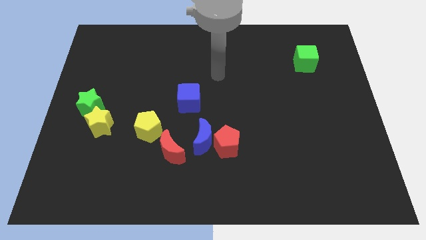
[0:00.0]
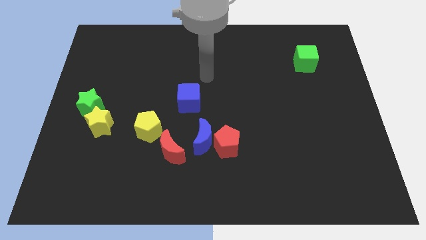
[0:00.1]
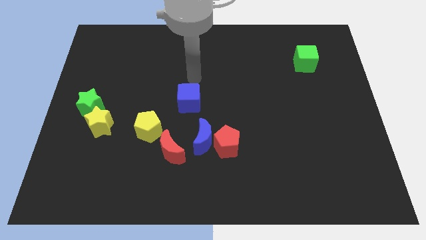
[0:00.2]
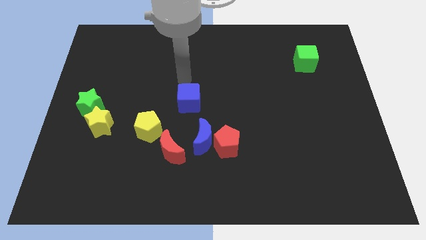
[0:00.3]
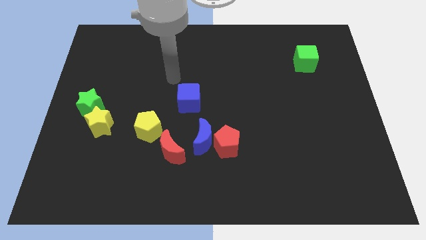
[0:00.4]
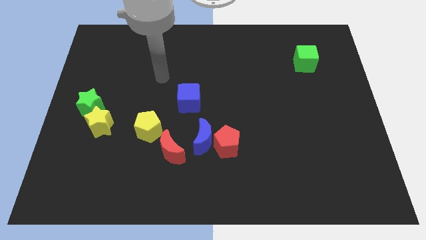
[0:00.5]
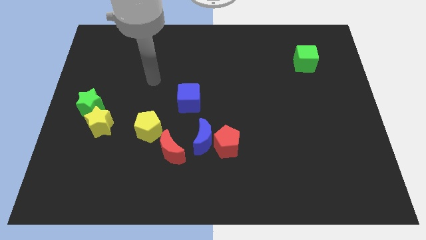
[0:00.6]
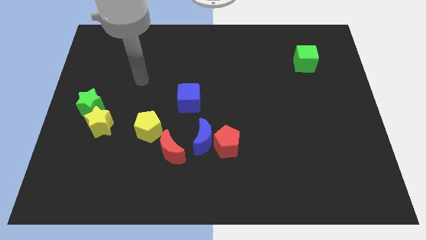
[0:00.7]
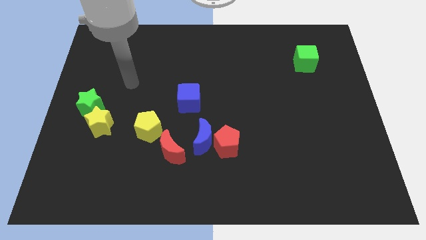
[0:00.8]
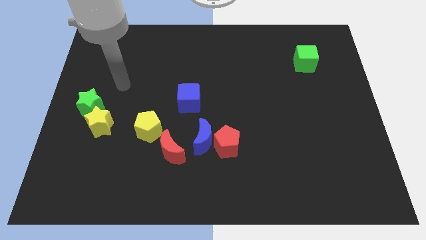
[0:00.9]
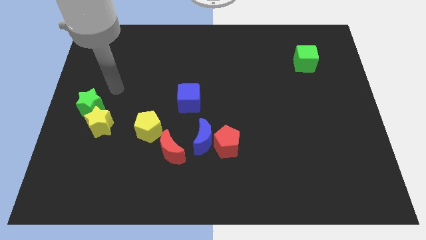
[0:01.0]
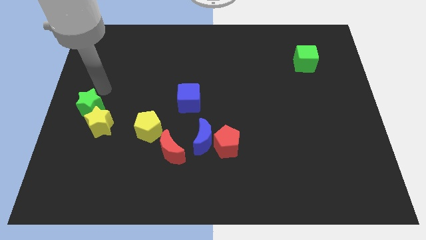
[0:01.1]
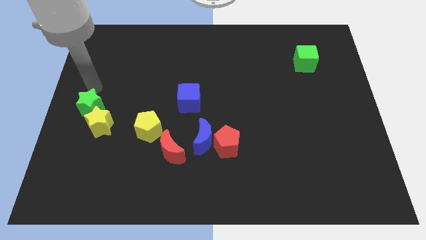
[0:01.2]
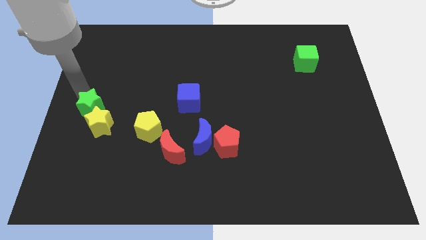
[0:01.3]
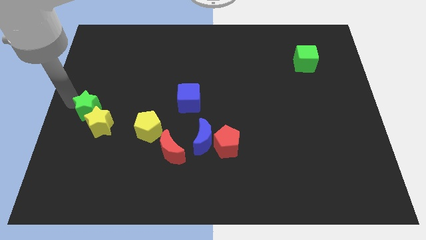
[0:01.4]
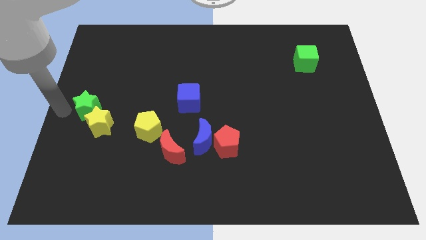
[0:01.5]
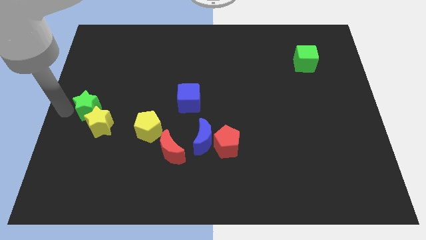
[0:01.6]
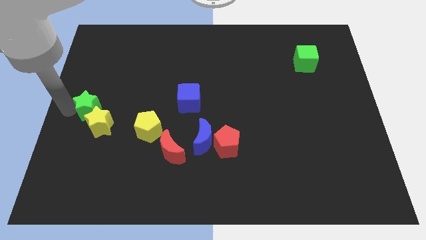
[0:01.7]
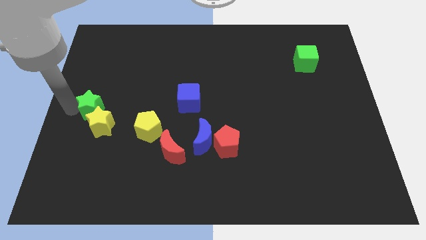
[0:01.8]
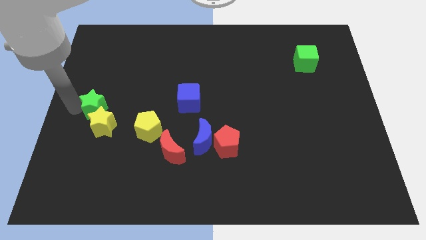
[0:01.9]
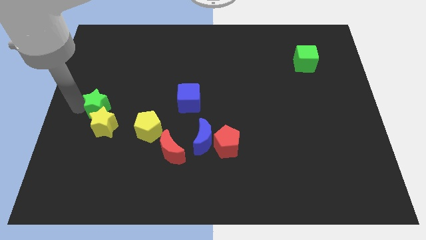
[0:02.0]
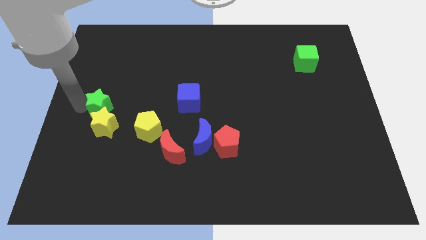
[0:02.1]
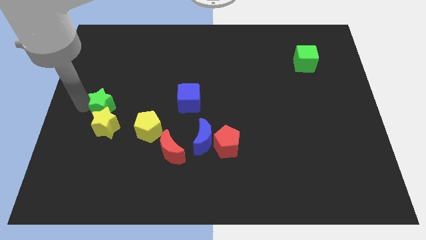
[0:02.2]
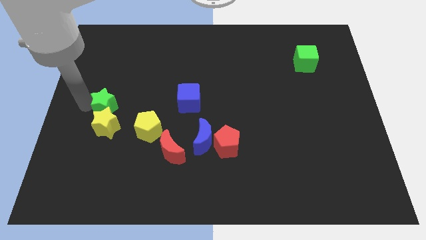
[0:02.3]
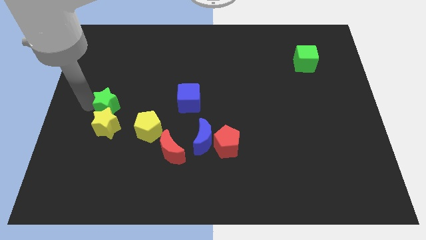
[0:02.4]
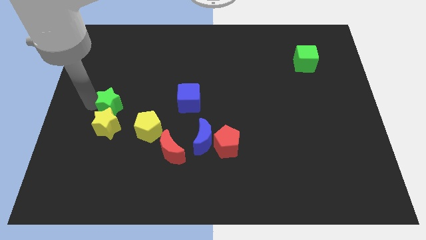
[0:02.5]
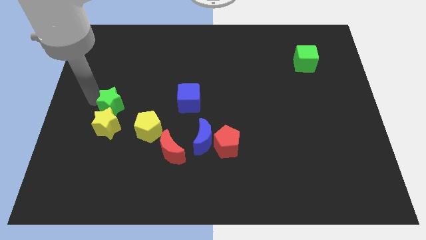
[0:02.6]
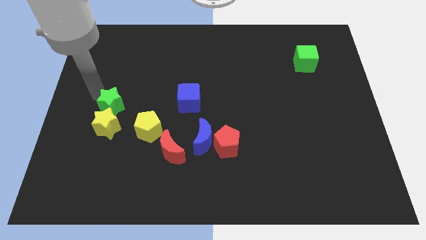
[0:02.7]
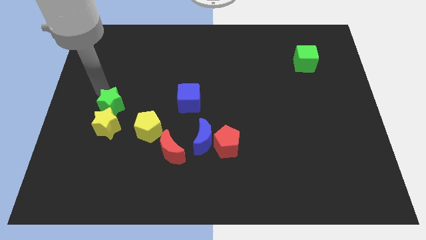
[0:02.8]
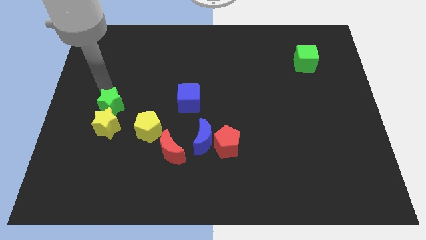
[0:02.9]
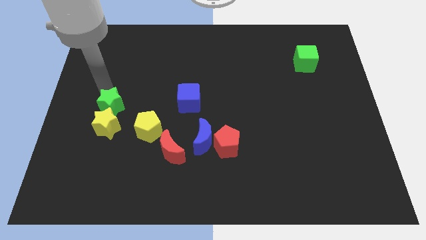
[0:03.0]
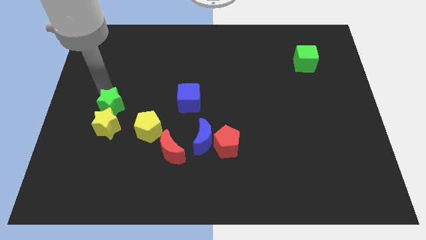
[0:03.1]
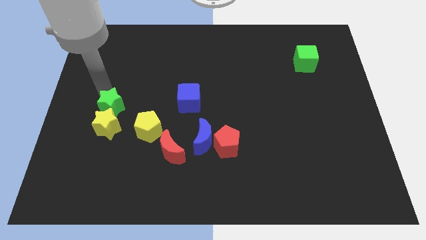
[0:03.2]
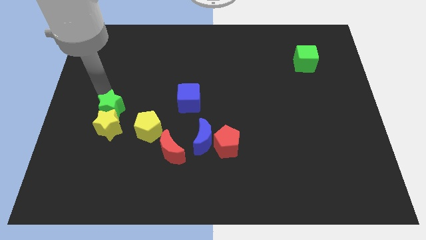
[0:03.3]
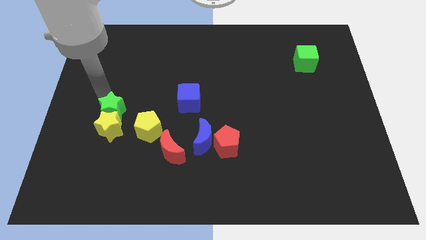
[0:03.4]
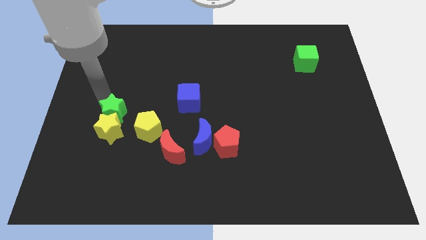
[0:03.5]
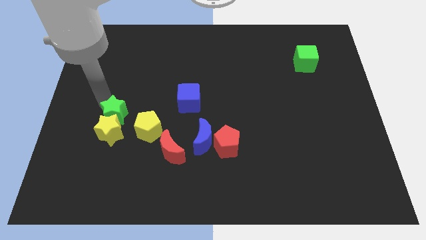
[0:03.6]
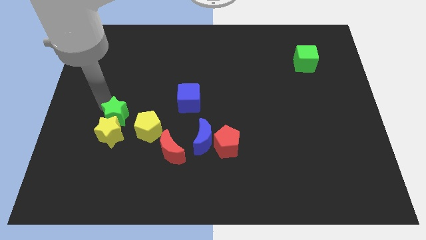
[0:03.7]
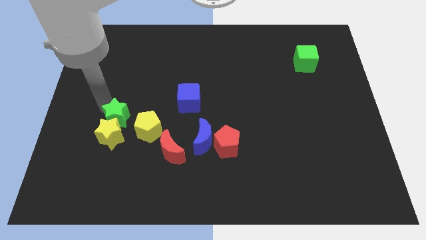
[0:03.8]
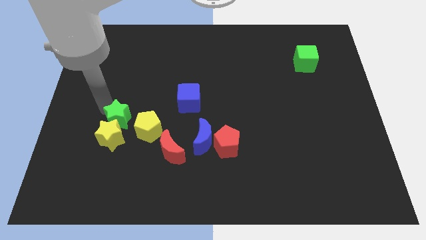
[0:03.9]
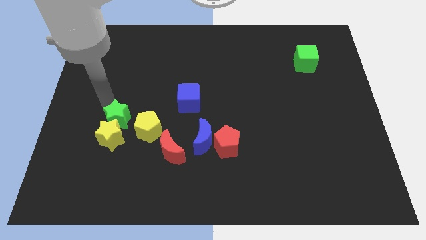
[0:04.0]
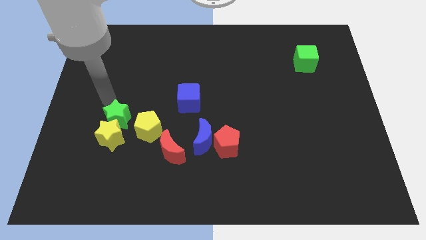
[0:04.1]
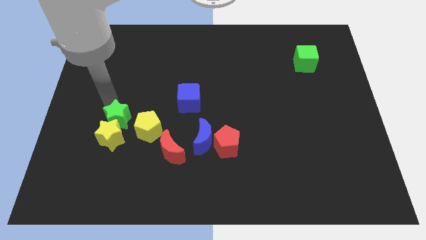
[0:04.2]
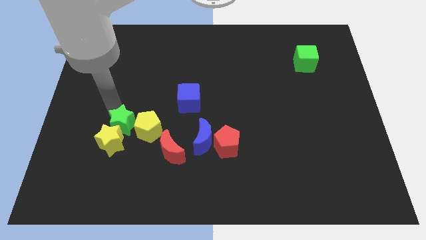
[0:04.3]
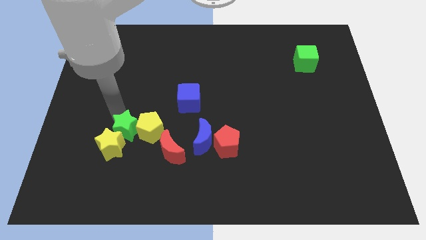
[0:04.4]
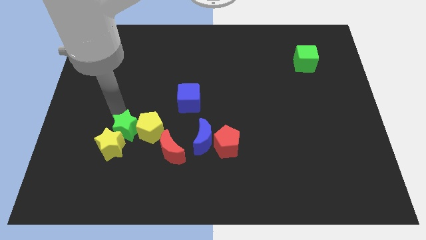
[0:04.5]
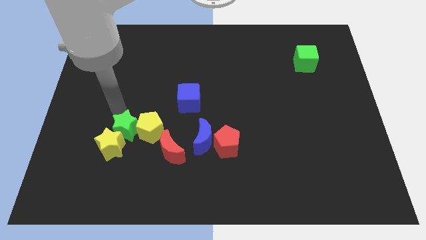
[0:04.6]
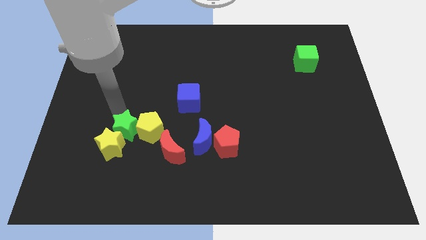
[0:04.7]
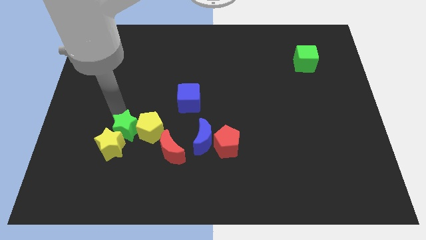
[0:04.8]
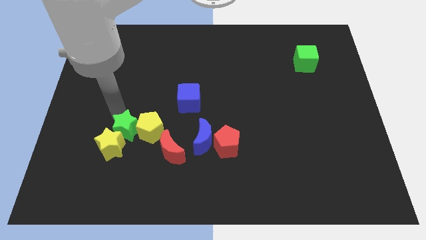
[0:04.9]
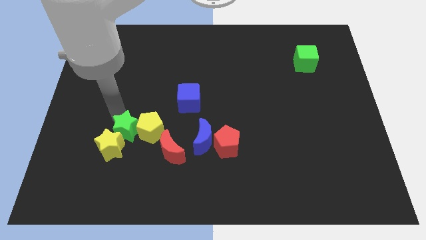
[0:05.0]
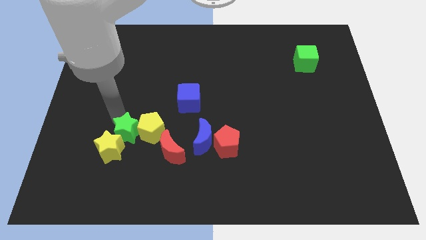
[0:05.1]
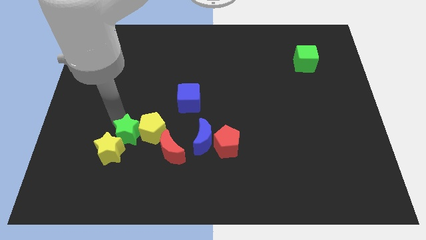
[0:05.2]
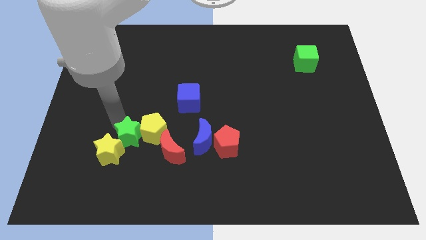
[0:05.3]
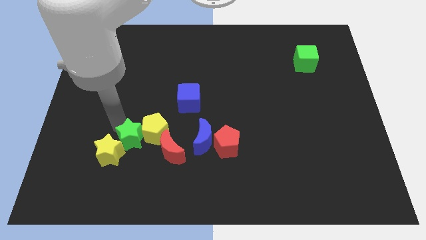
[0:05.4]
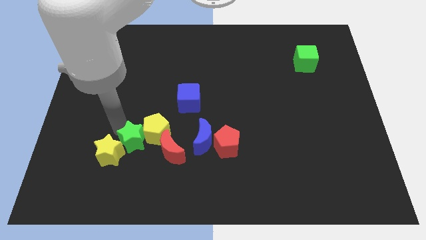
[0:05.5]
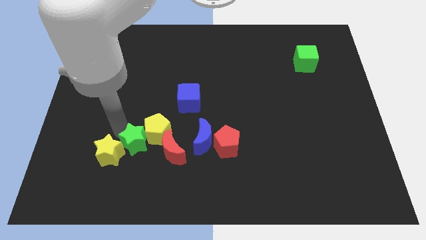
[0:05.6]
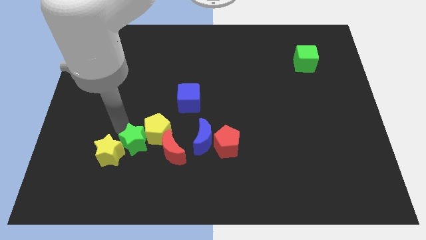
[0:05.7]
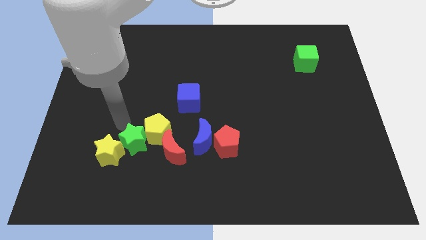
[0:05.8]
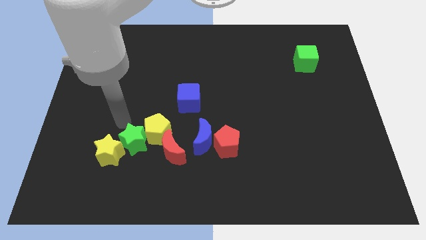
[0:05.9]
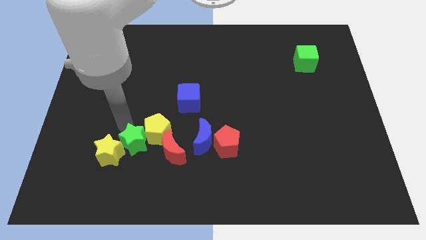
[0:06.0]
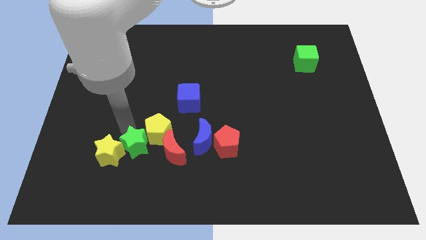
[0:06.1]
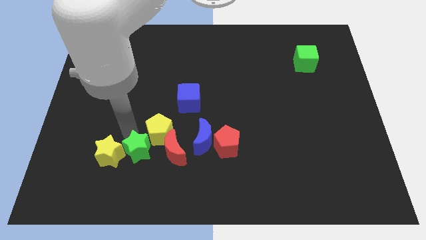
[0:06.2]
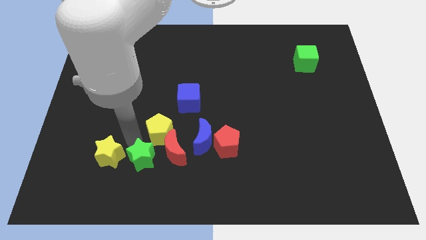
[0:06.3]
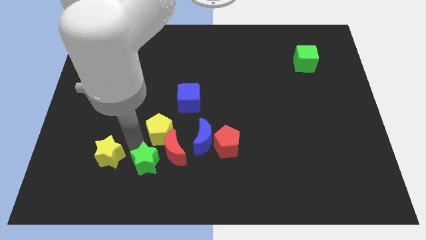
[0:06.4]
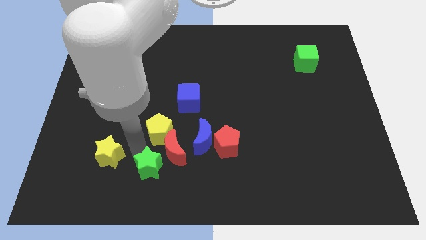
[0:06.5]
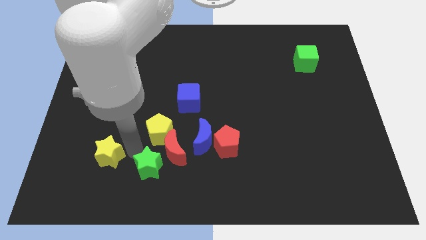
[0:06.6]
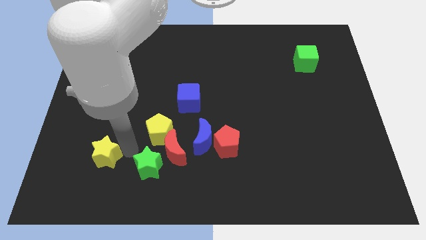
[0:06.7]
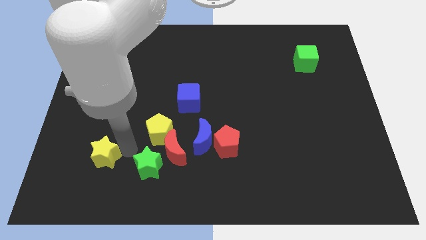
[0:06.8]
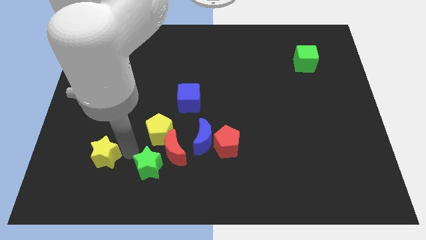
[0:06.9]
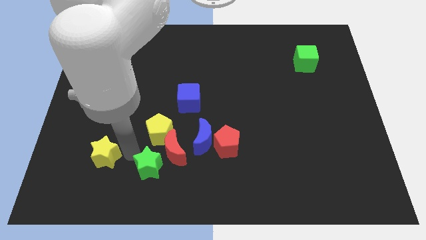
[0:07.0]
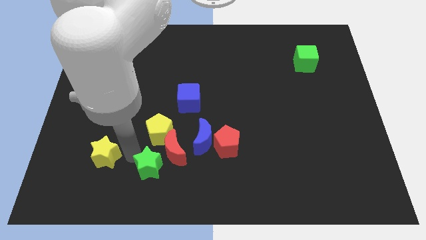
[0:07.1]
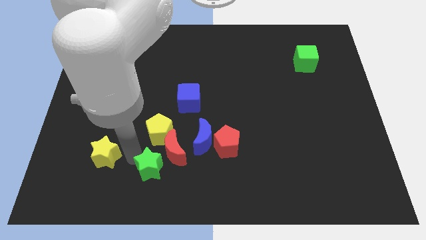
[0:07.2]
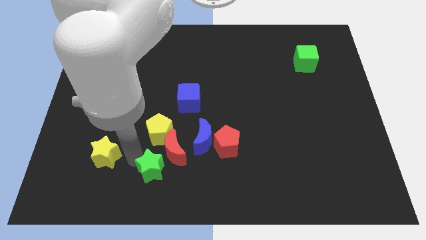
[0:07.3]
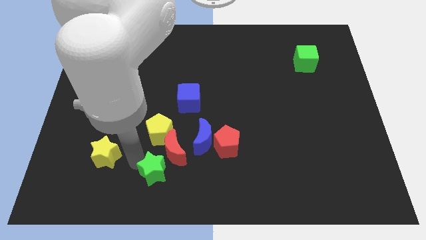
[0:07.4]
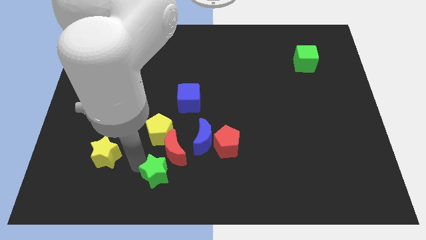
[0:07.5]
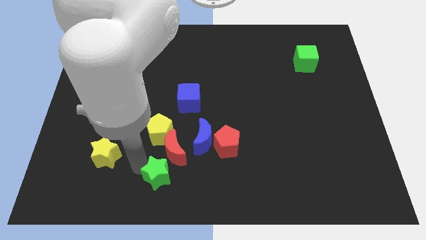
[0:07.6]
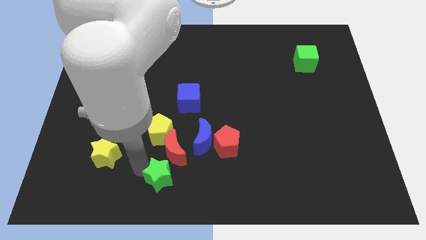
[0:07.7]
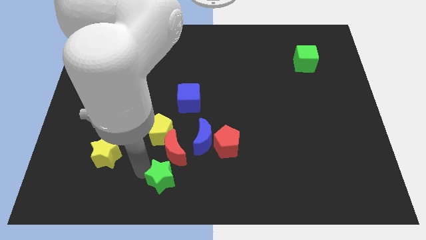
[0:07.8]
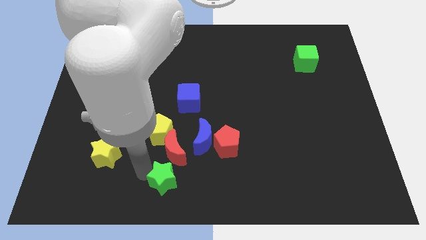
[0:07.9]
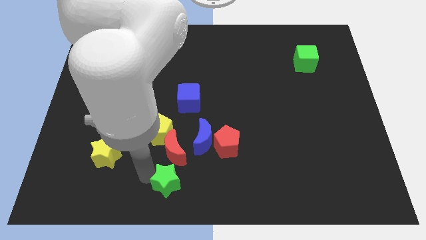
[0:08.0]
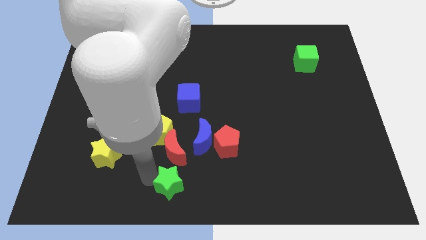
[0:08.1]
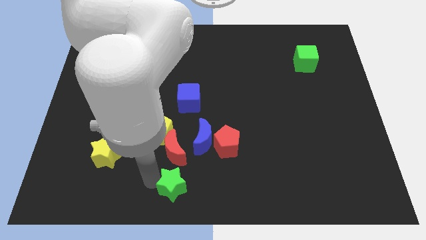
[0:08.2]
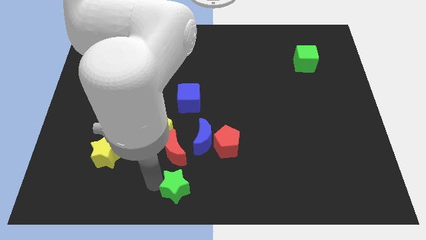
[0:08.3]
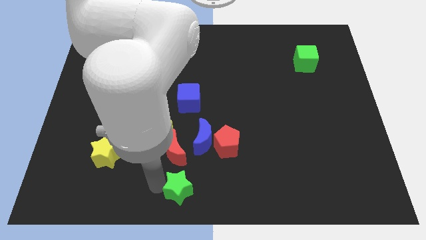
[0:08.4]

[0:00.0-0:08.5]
move the green star to the bottom of the blue moon
